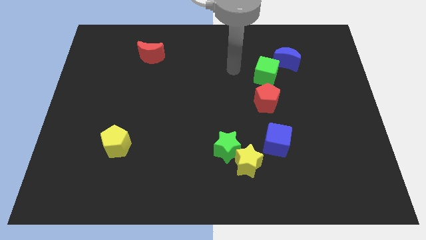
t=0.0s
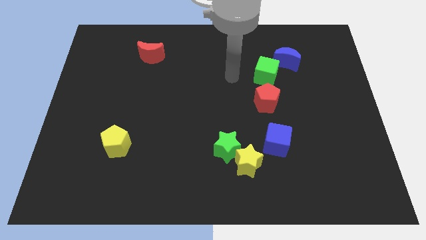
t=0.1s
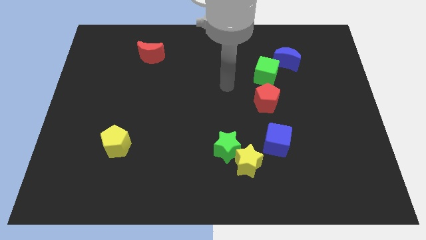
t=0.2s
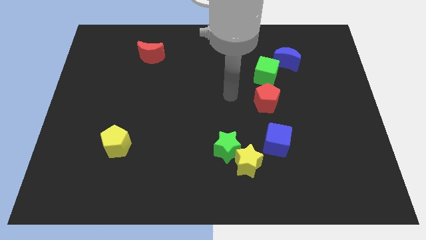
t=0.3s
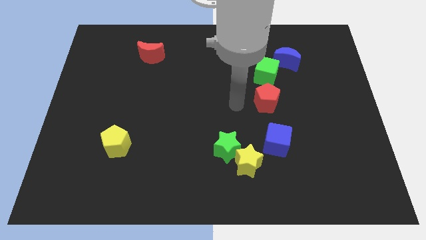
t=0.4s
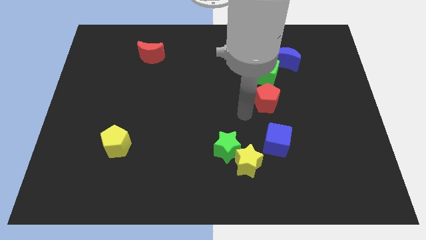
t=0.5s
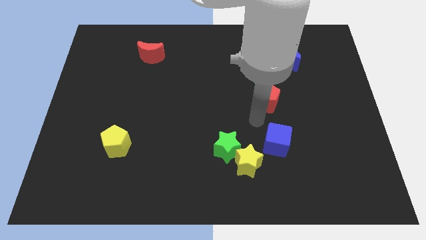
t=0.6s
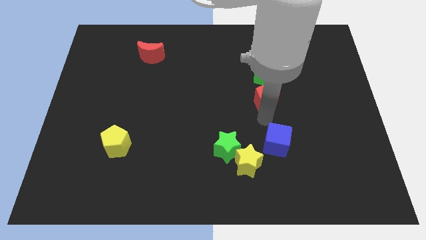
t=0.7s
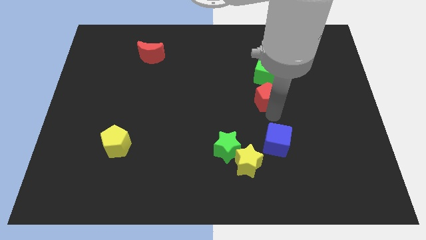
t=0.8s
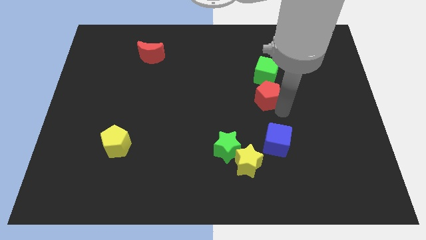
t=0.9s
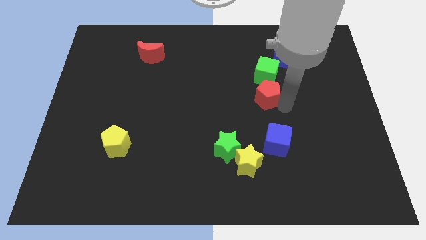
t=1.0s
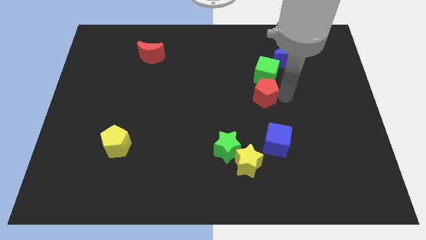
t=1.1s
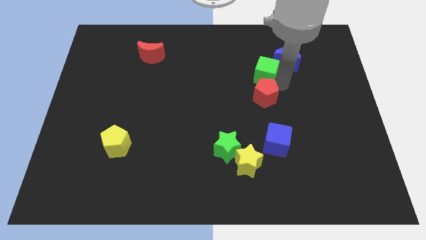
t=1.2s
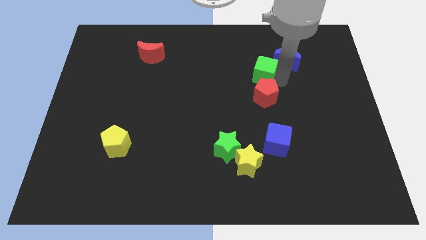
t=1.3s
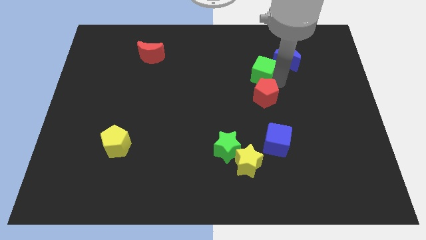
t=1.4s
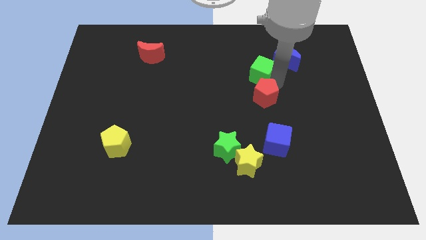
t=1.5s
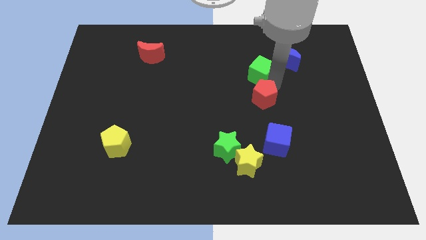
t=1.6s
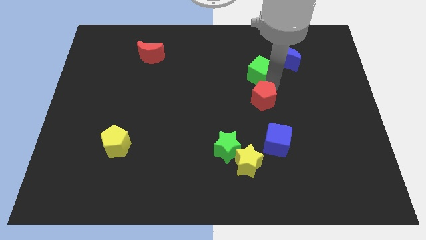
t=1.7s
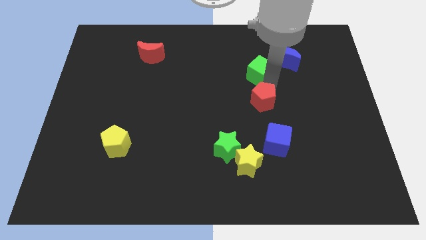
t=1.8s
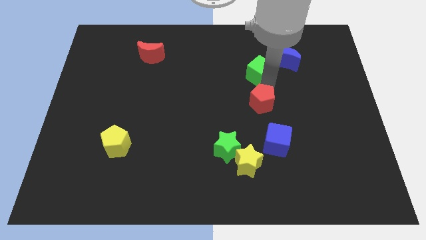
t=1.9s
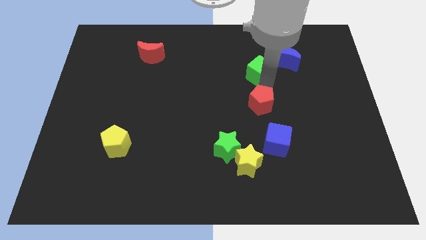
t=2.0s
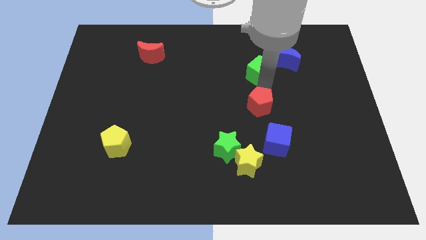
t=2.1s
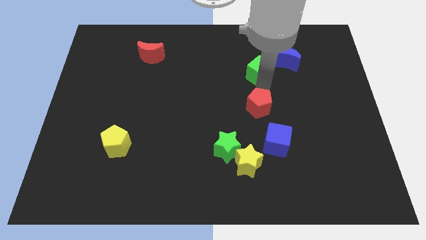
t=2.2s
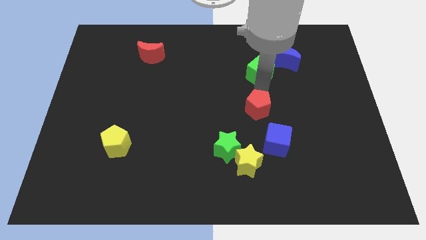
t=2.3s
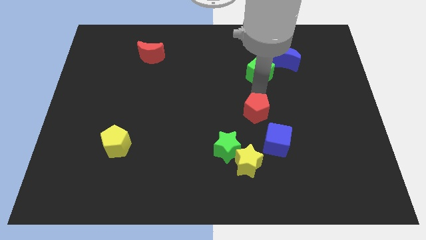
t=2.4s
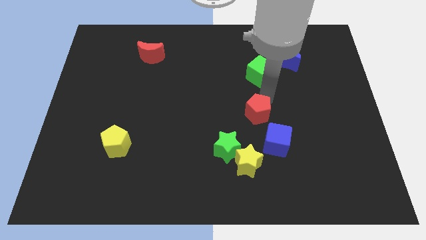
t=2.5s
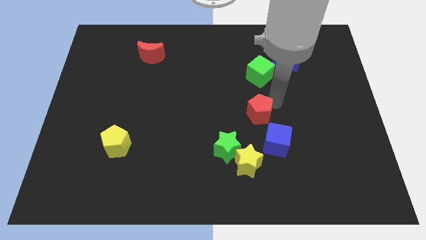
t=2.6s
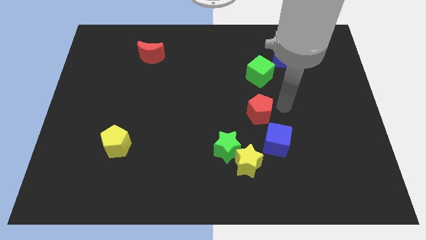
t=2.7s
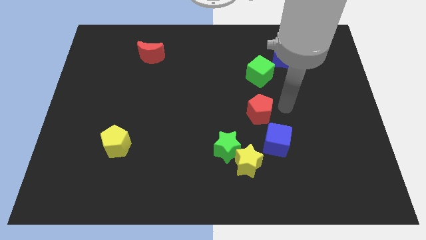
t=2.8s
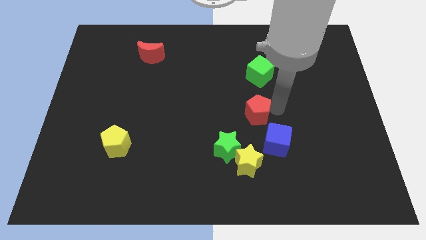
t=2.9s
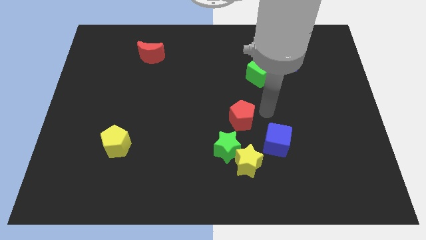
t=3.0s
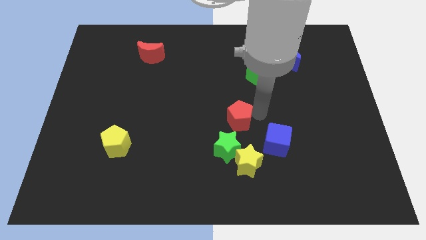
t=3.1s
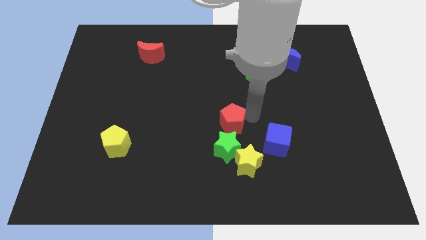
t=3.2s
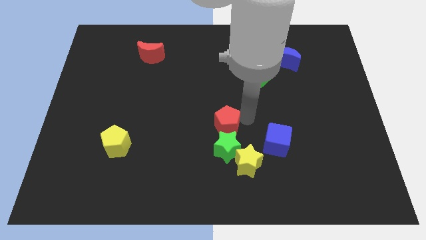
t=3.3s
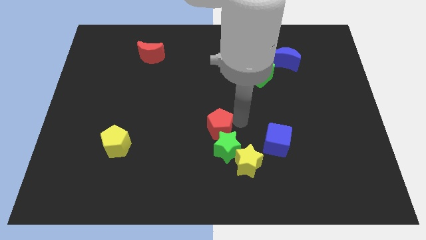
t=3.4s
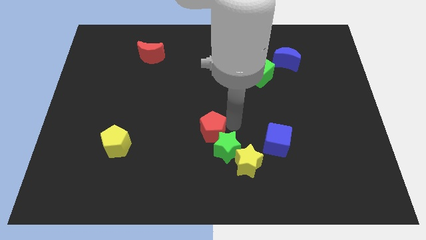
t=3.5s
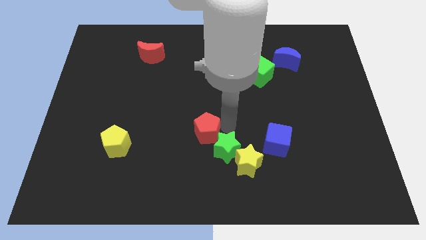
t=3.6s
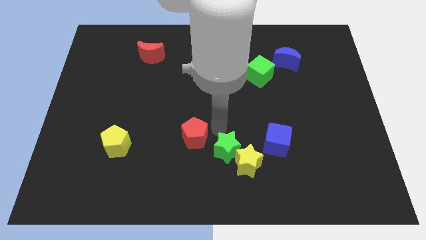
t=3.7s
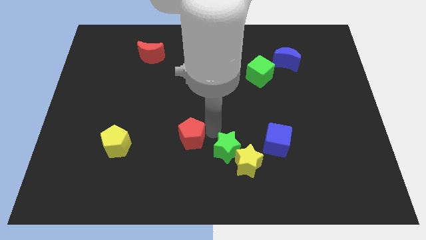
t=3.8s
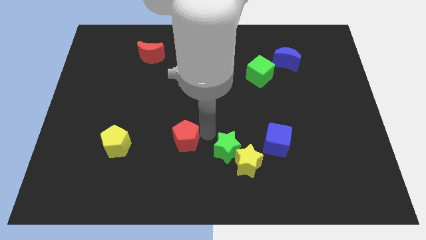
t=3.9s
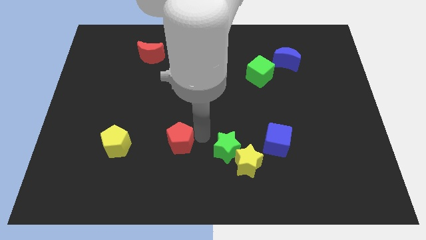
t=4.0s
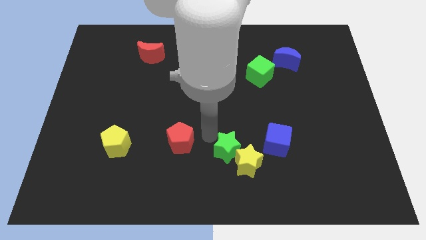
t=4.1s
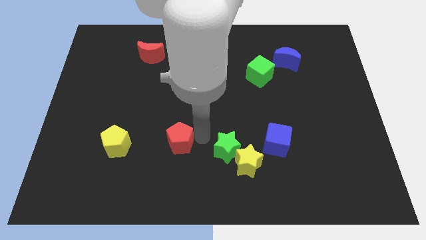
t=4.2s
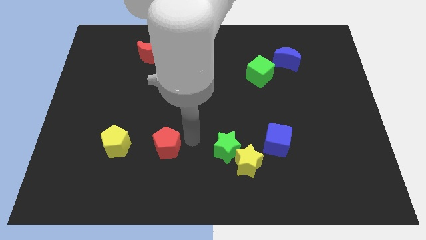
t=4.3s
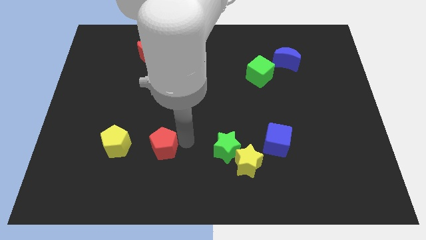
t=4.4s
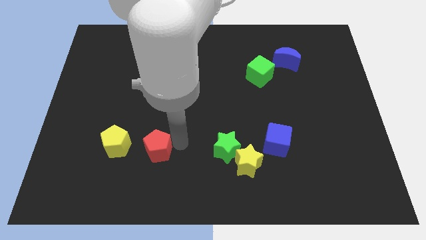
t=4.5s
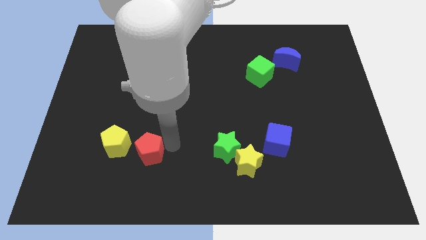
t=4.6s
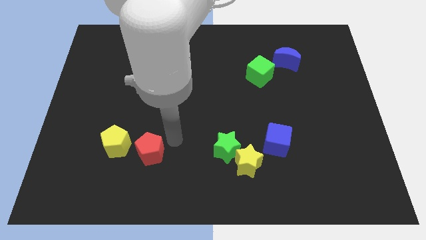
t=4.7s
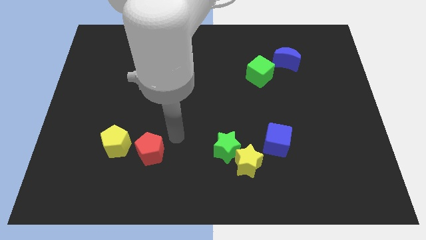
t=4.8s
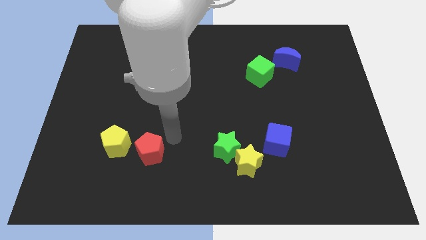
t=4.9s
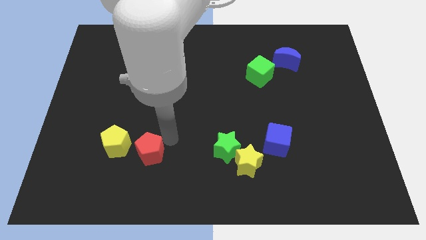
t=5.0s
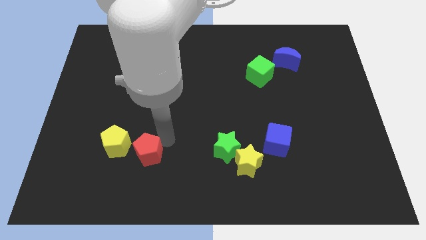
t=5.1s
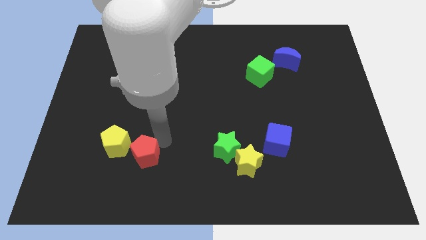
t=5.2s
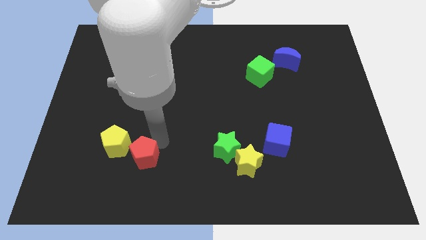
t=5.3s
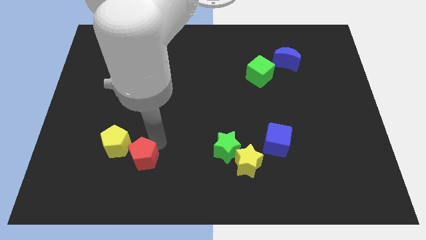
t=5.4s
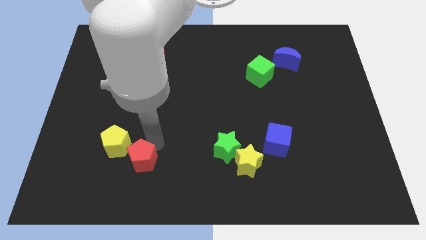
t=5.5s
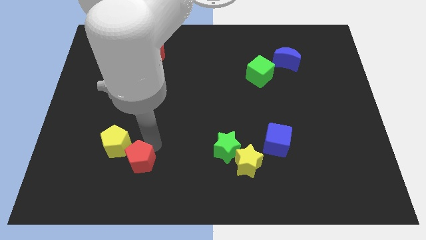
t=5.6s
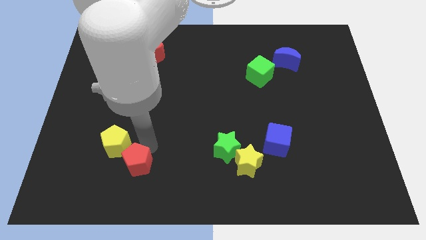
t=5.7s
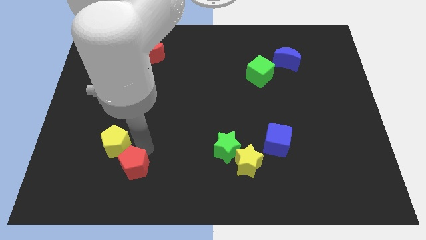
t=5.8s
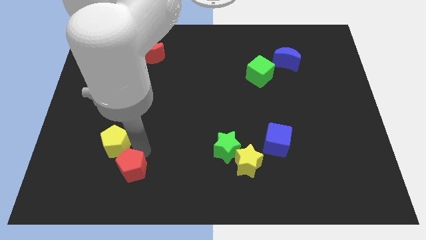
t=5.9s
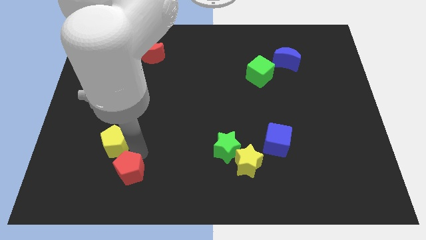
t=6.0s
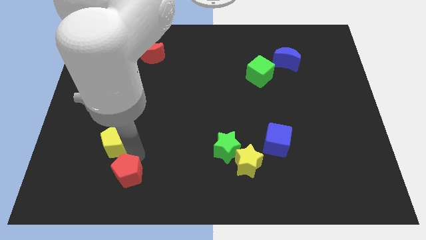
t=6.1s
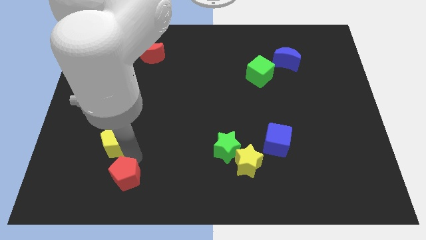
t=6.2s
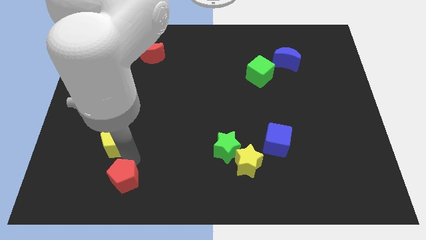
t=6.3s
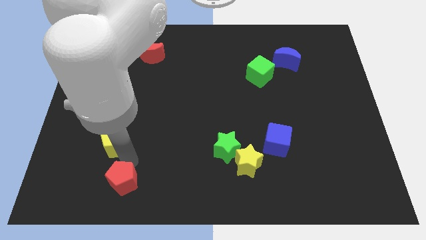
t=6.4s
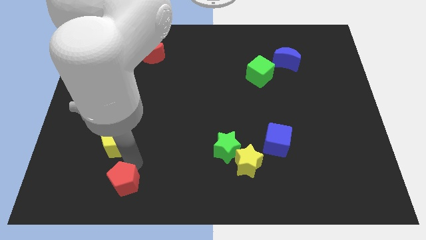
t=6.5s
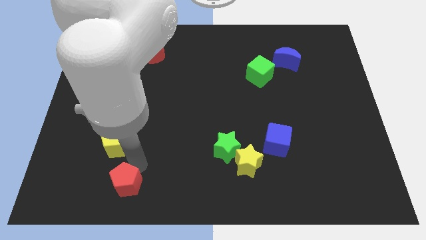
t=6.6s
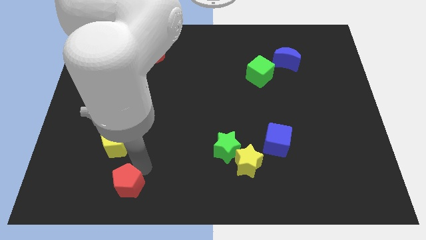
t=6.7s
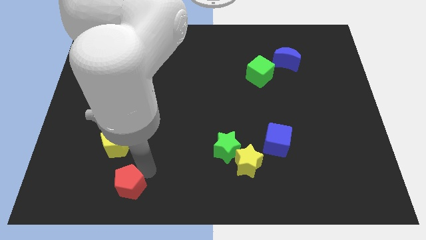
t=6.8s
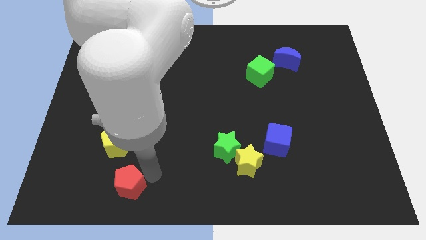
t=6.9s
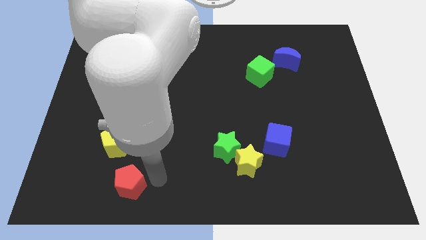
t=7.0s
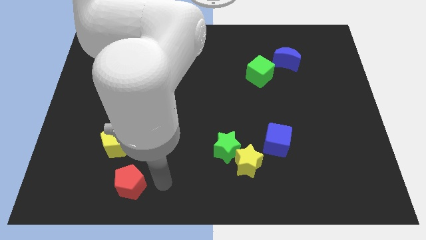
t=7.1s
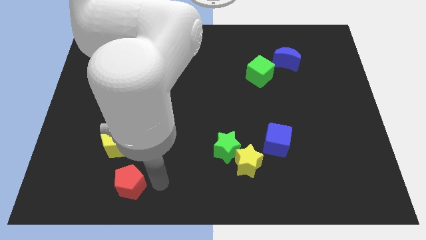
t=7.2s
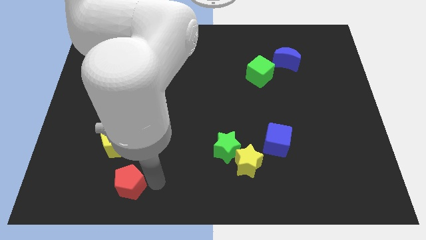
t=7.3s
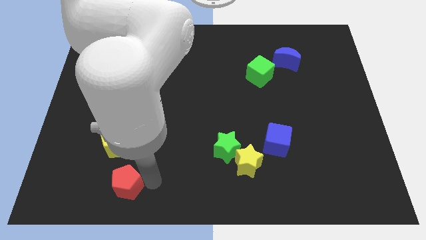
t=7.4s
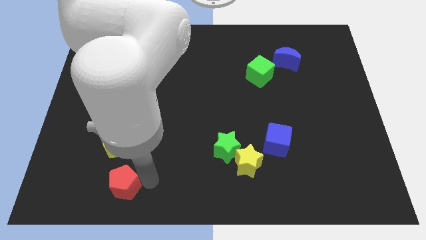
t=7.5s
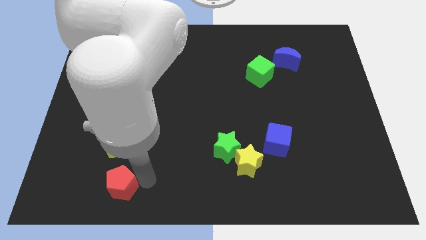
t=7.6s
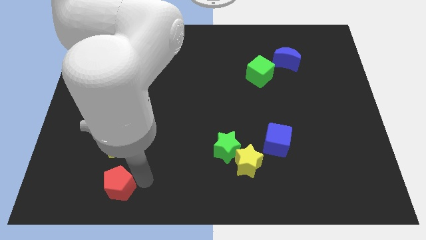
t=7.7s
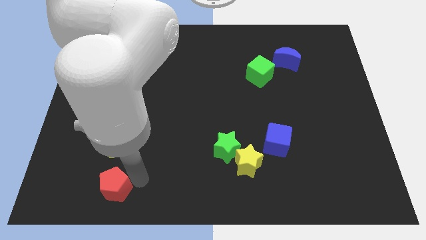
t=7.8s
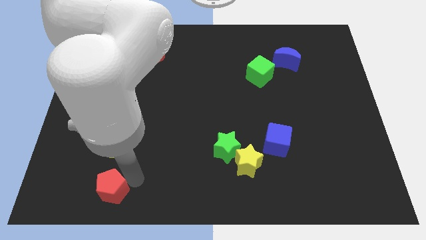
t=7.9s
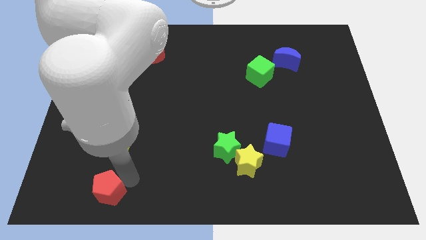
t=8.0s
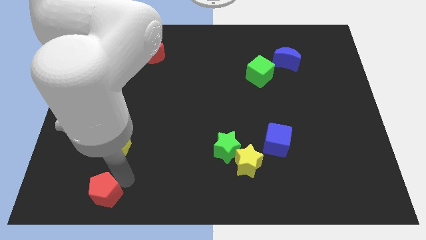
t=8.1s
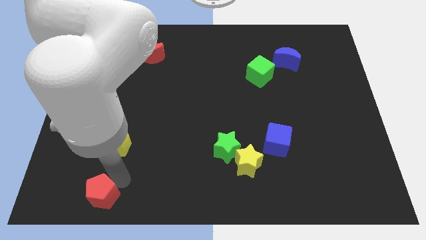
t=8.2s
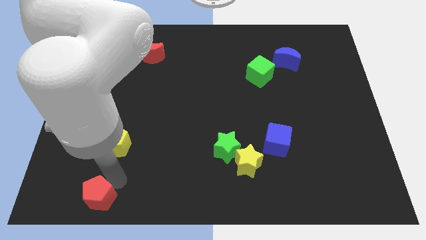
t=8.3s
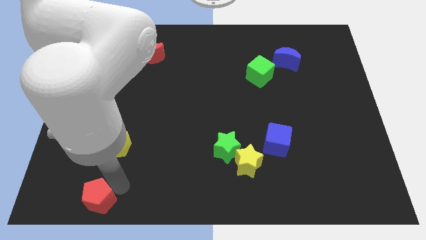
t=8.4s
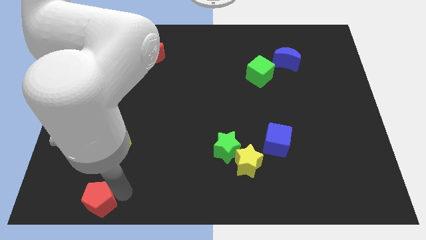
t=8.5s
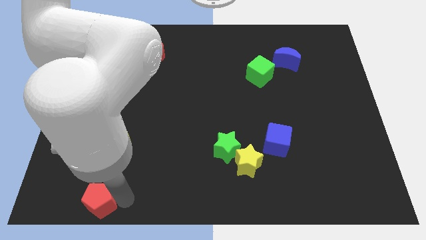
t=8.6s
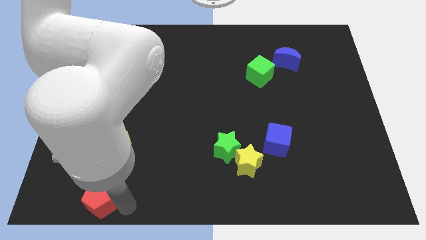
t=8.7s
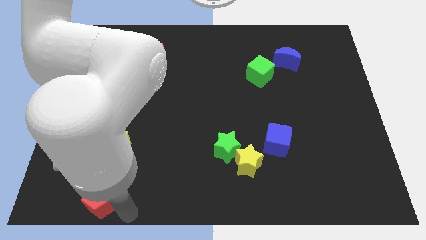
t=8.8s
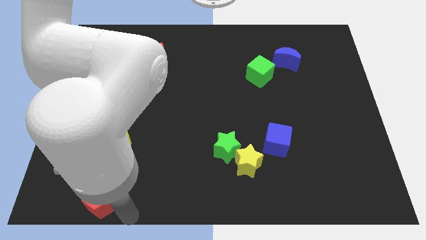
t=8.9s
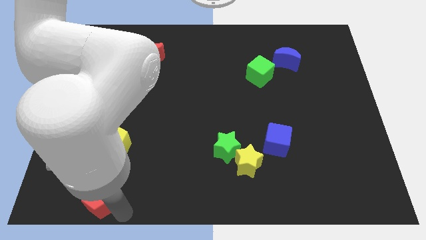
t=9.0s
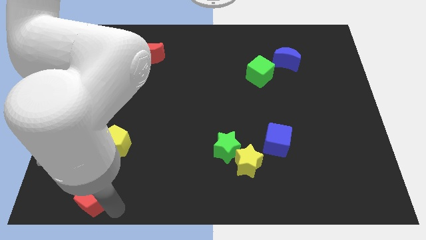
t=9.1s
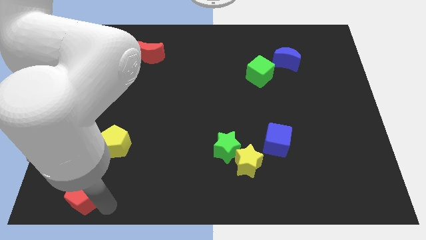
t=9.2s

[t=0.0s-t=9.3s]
push the red pentagon to the bottom left corner
